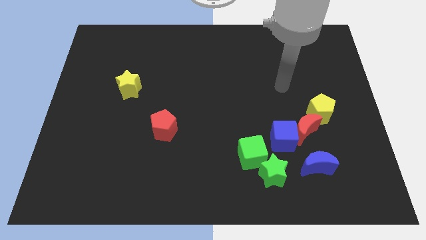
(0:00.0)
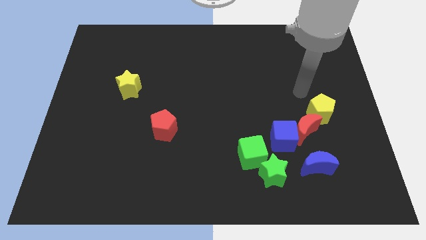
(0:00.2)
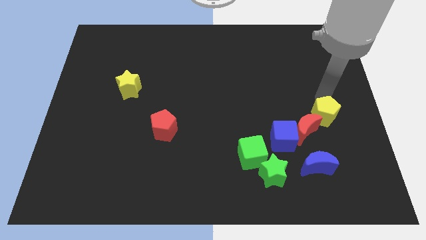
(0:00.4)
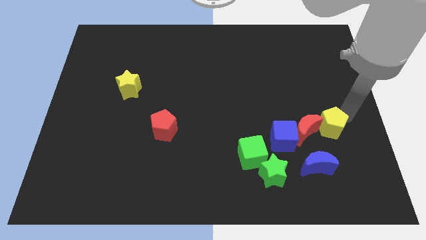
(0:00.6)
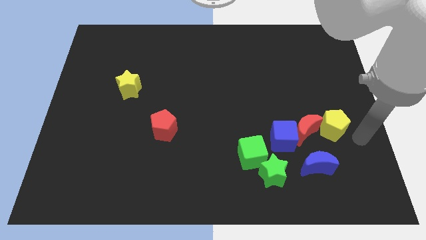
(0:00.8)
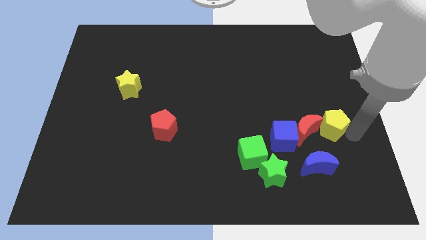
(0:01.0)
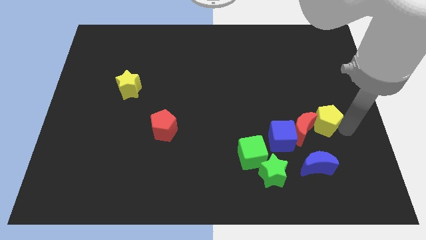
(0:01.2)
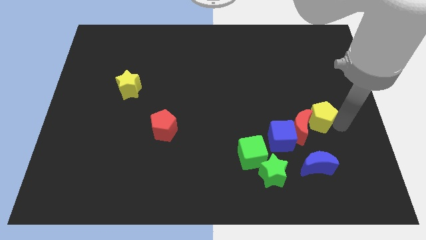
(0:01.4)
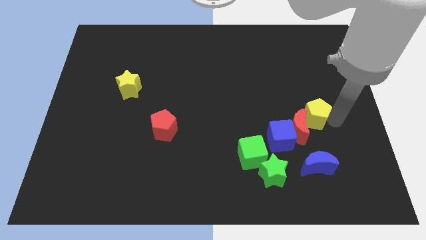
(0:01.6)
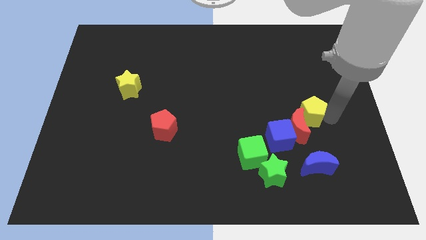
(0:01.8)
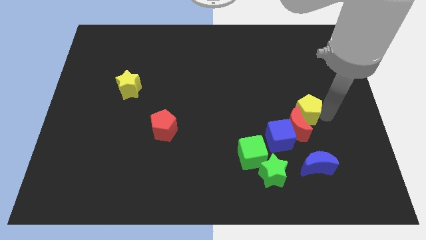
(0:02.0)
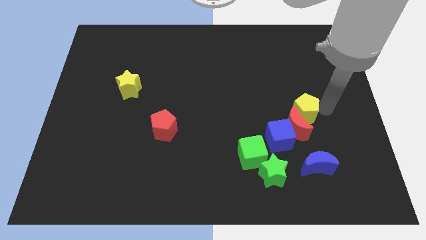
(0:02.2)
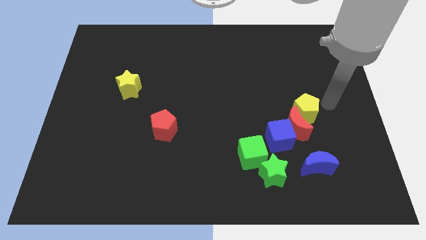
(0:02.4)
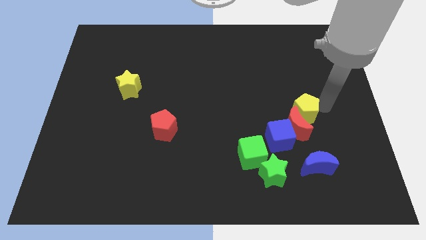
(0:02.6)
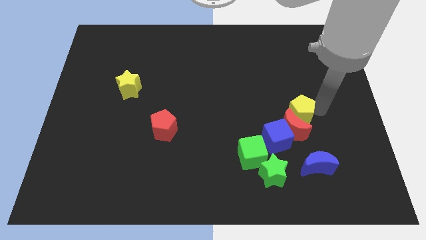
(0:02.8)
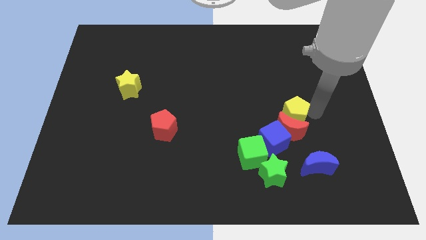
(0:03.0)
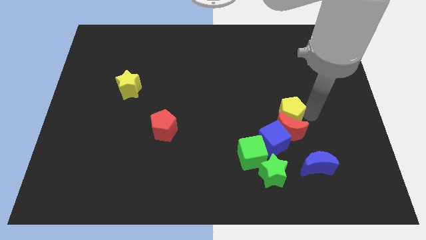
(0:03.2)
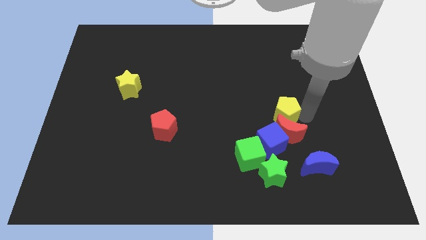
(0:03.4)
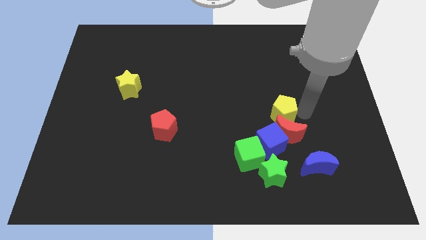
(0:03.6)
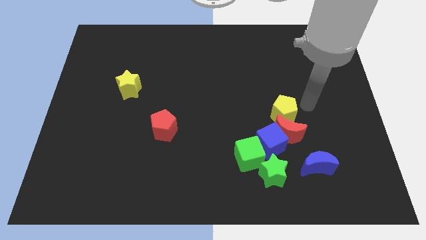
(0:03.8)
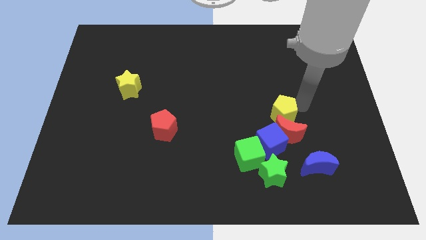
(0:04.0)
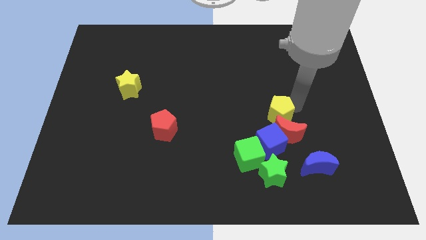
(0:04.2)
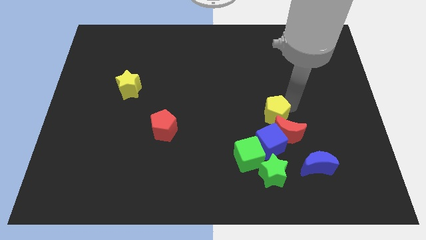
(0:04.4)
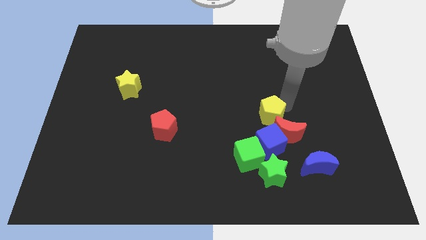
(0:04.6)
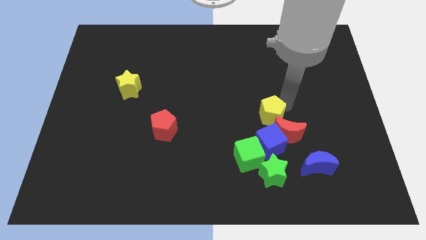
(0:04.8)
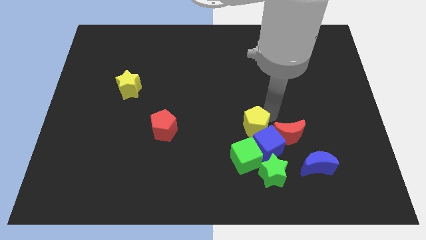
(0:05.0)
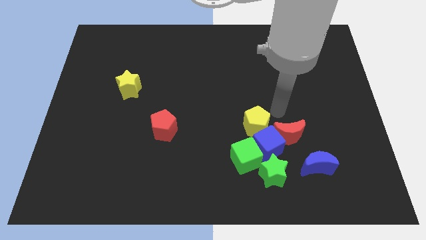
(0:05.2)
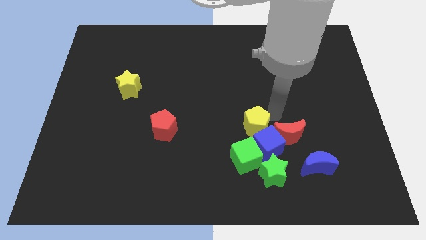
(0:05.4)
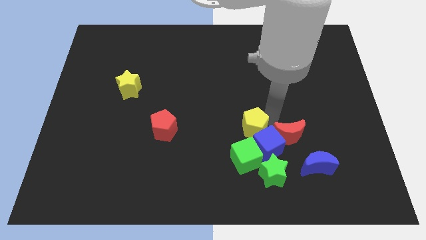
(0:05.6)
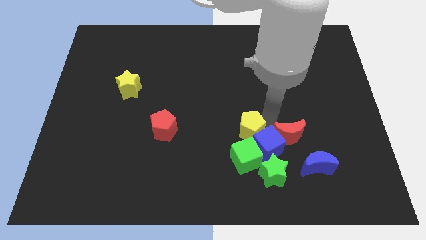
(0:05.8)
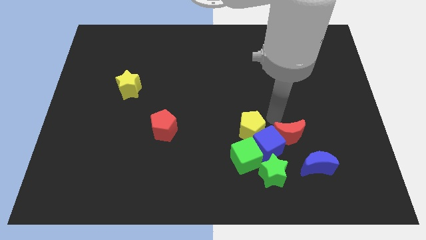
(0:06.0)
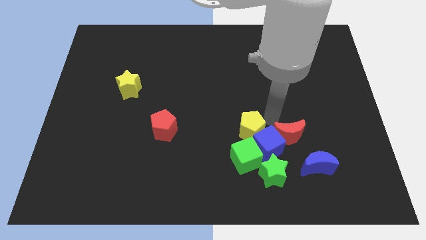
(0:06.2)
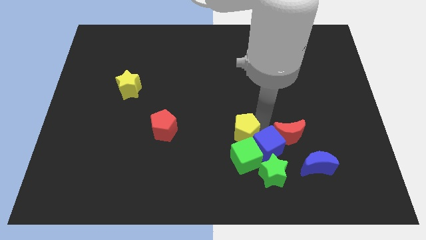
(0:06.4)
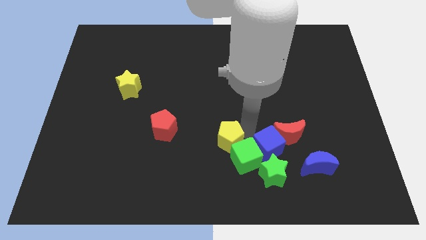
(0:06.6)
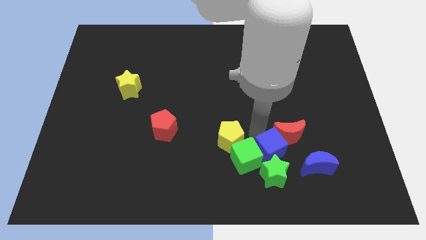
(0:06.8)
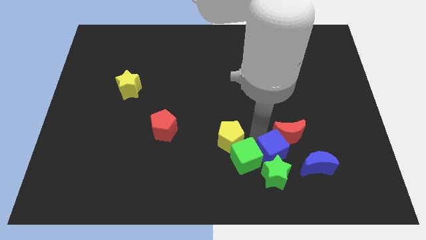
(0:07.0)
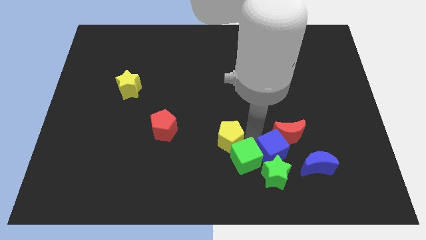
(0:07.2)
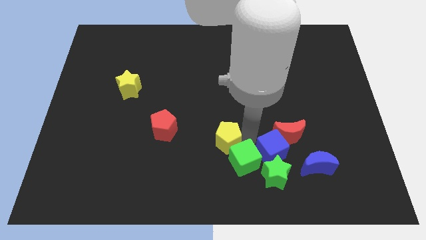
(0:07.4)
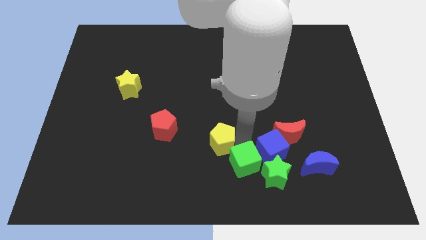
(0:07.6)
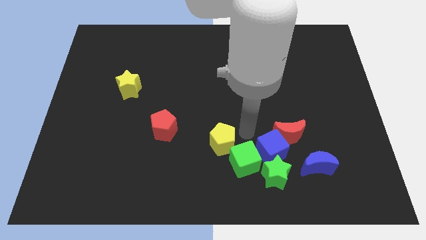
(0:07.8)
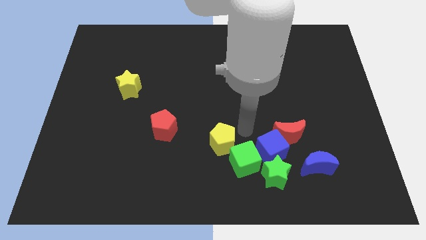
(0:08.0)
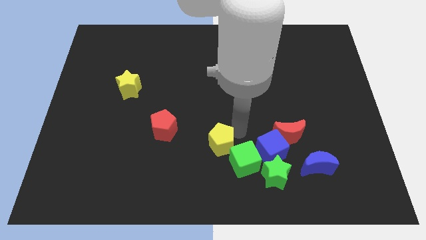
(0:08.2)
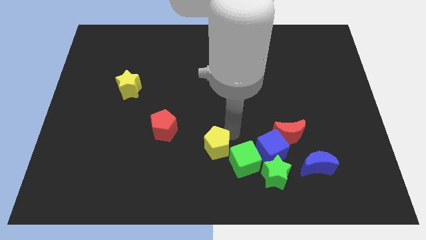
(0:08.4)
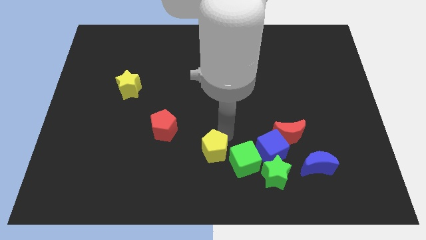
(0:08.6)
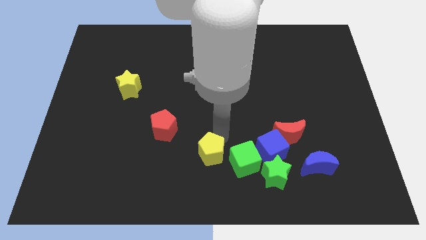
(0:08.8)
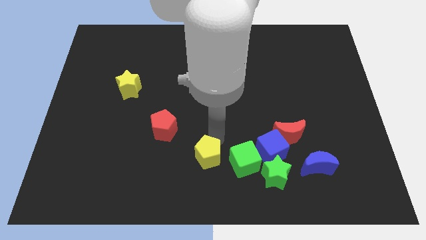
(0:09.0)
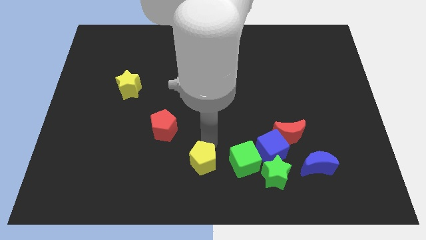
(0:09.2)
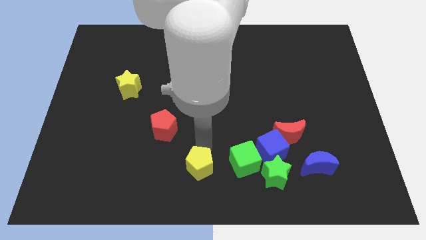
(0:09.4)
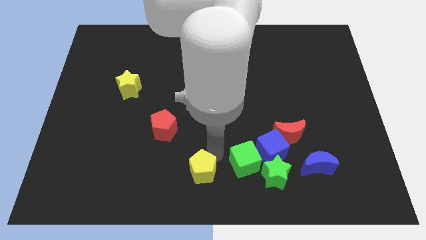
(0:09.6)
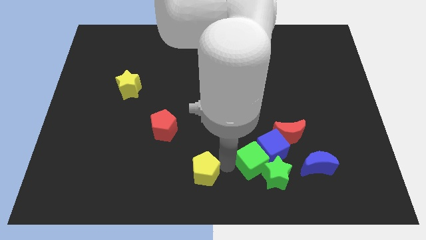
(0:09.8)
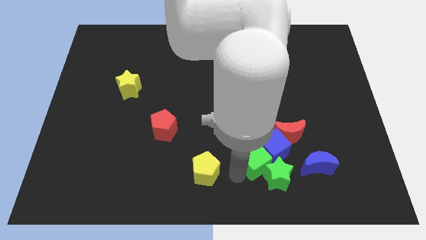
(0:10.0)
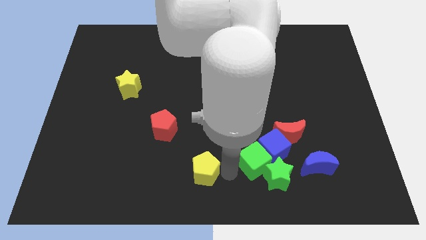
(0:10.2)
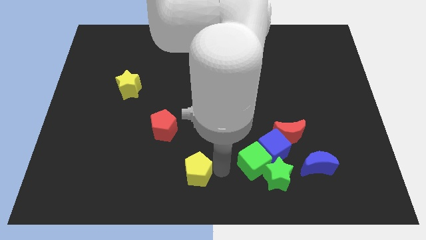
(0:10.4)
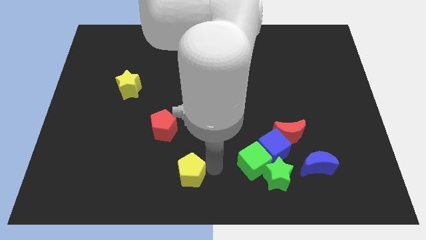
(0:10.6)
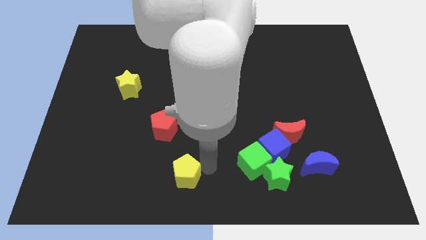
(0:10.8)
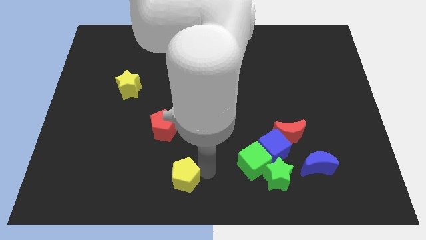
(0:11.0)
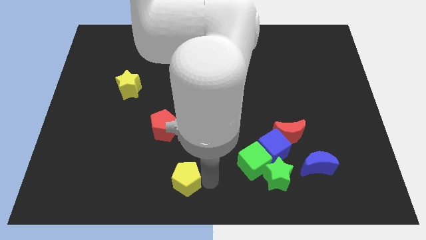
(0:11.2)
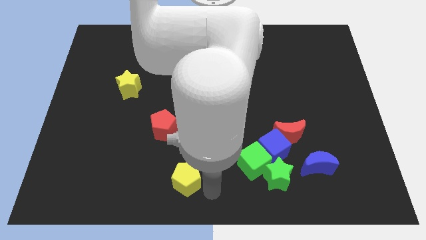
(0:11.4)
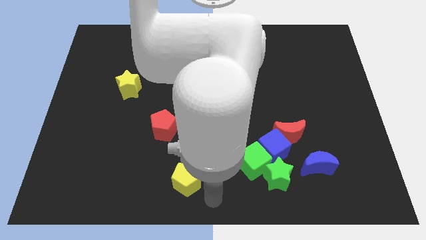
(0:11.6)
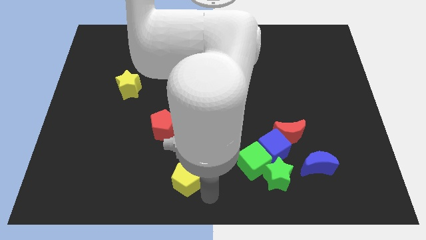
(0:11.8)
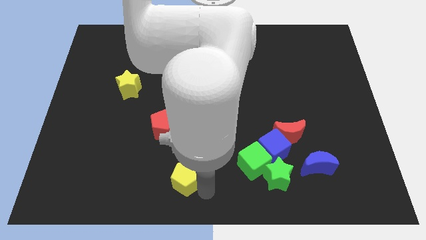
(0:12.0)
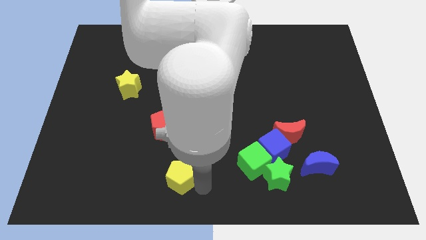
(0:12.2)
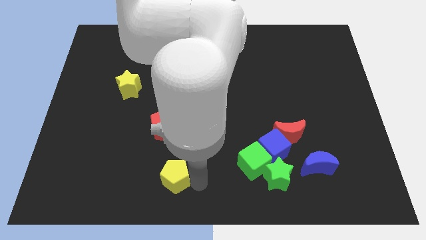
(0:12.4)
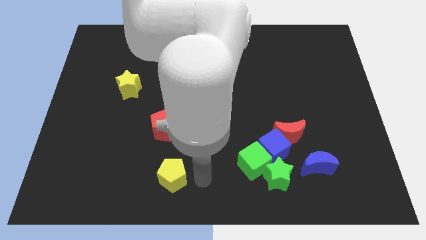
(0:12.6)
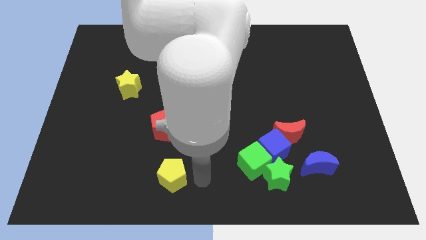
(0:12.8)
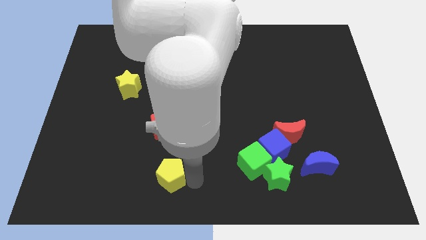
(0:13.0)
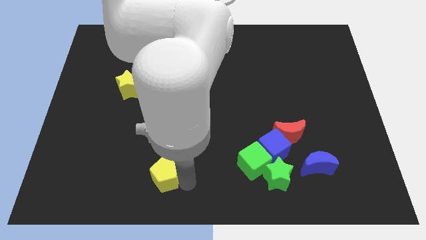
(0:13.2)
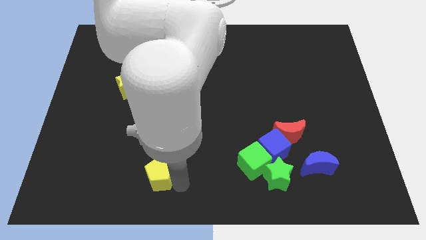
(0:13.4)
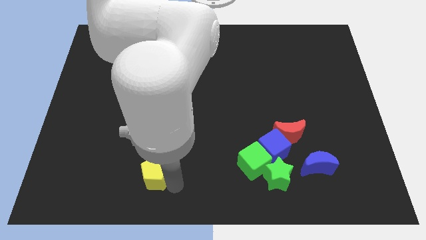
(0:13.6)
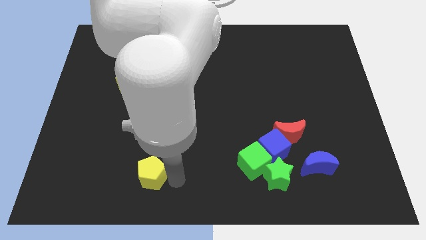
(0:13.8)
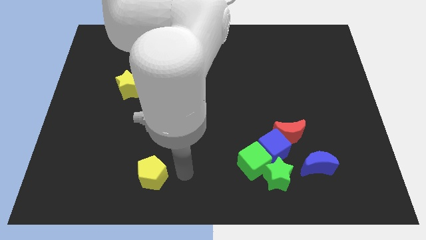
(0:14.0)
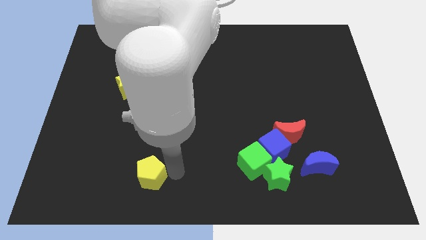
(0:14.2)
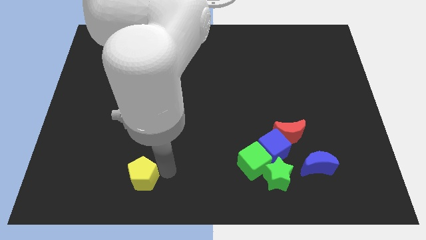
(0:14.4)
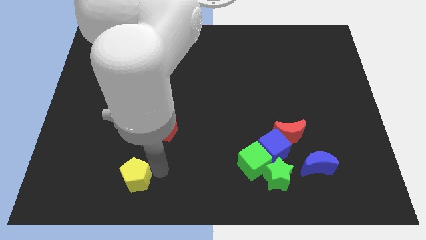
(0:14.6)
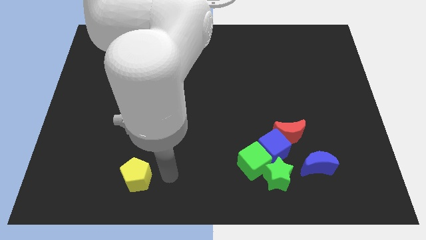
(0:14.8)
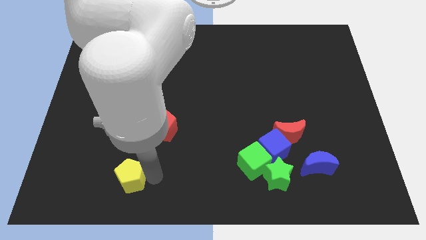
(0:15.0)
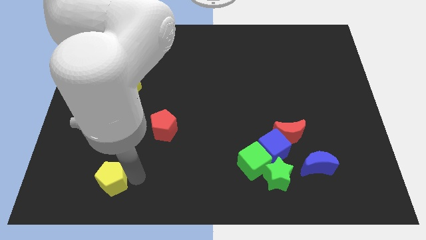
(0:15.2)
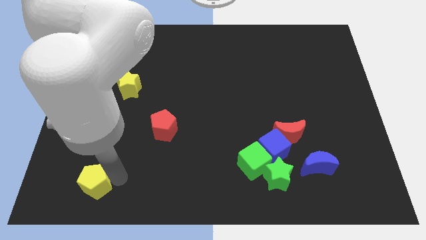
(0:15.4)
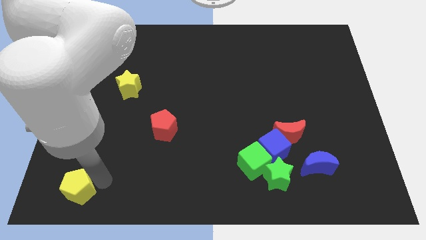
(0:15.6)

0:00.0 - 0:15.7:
push the yellow pentagon to the bottom left corner
